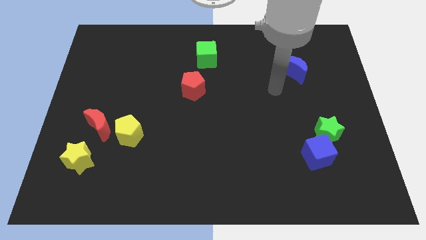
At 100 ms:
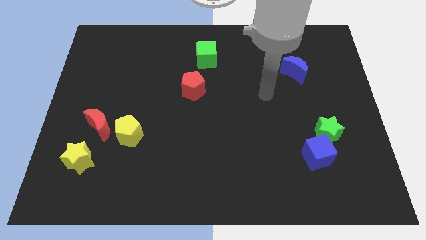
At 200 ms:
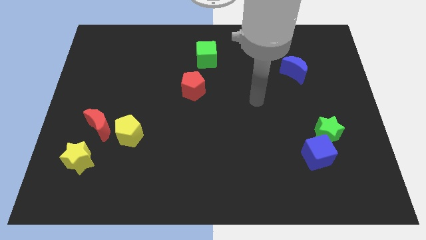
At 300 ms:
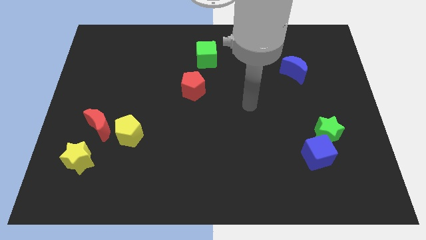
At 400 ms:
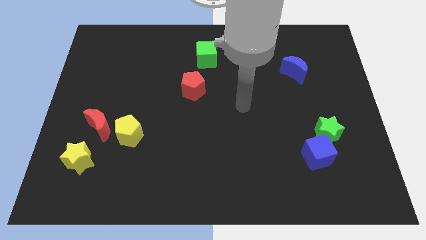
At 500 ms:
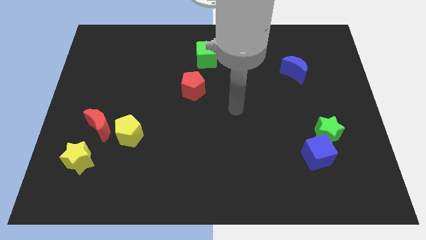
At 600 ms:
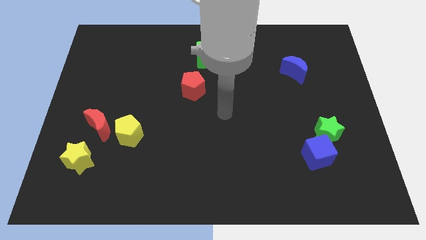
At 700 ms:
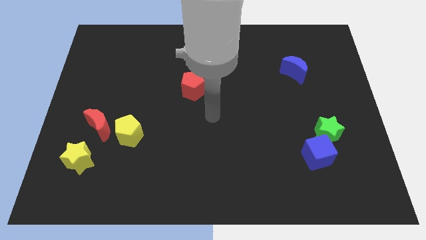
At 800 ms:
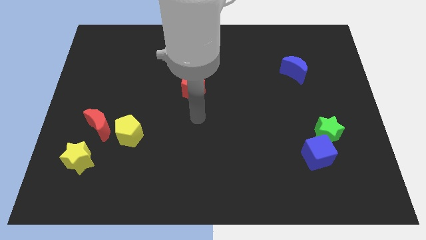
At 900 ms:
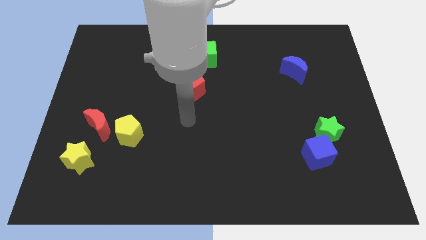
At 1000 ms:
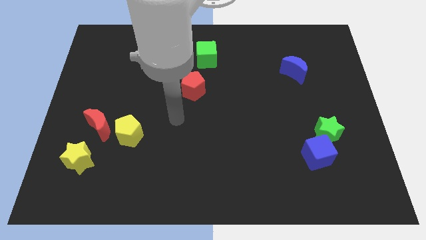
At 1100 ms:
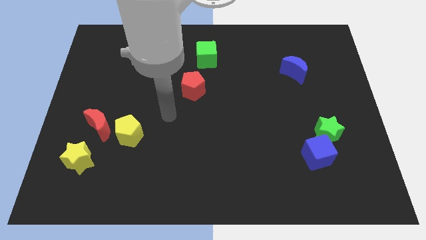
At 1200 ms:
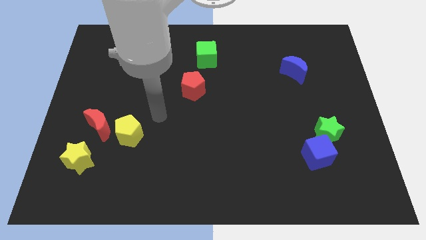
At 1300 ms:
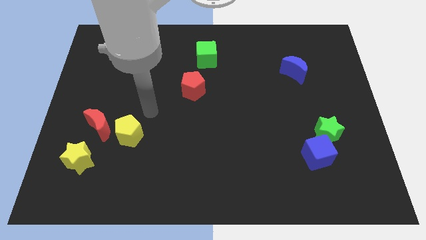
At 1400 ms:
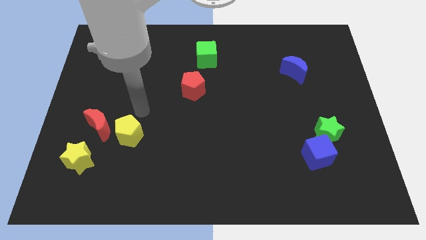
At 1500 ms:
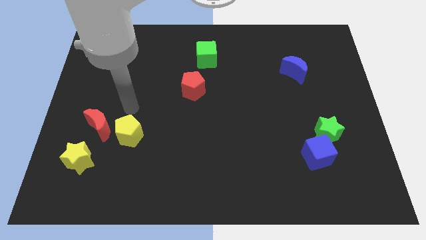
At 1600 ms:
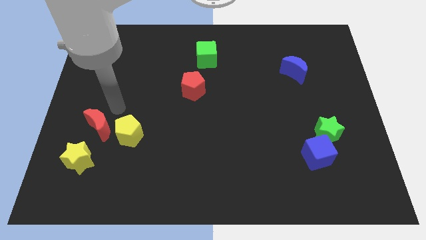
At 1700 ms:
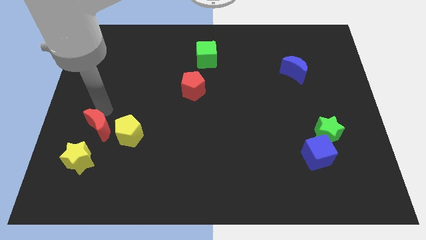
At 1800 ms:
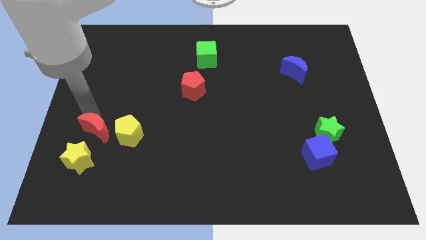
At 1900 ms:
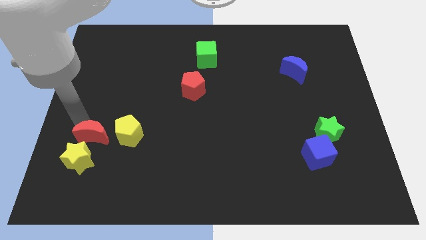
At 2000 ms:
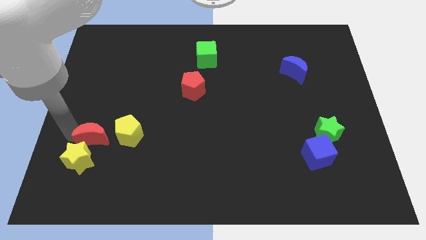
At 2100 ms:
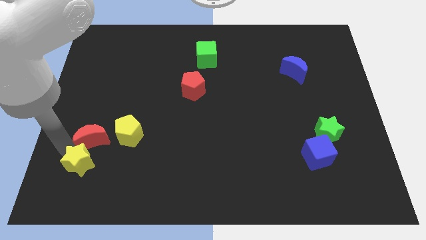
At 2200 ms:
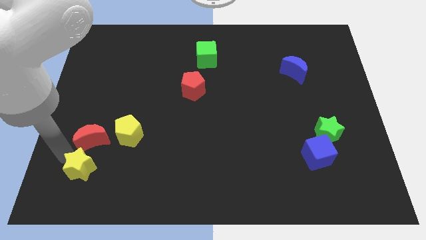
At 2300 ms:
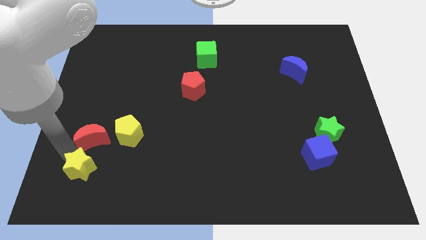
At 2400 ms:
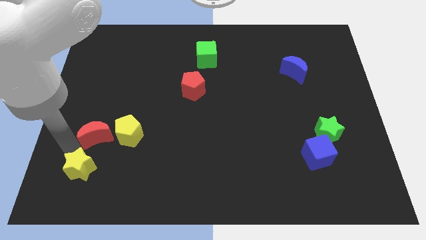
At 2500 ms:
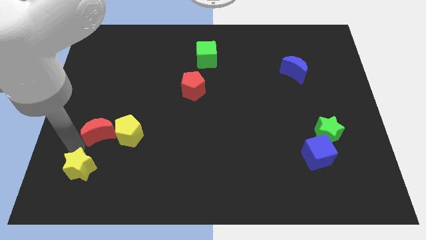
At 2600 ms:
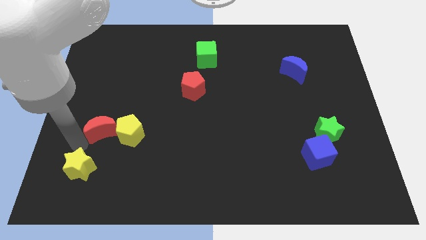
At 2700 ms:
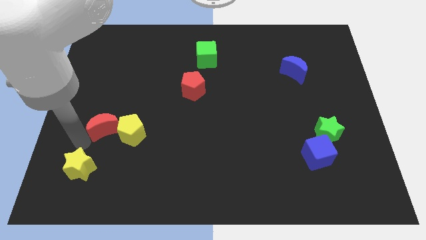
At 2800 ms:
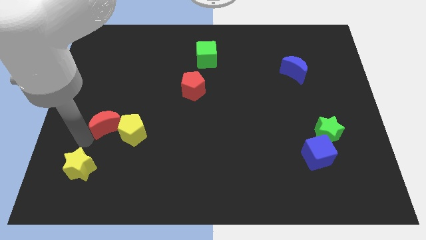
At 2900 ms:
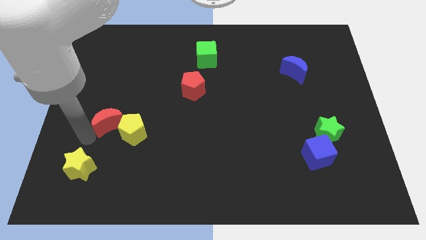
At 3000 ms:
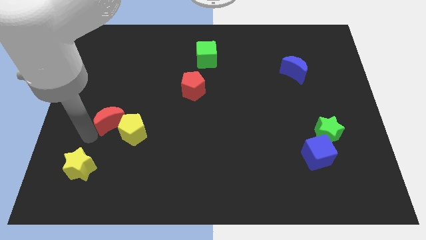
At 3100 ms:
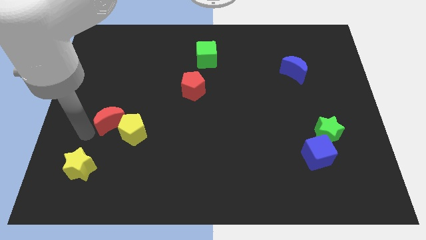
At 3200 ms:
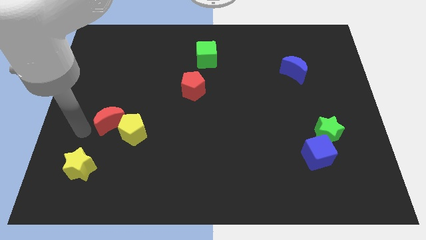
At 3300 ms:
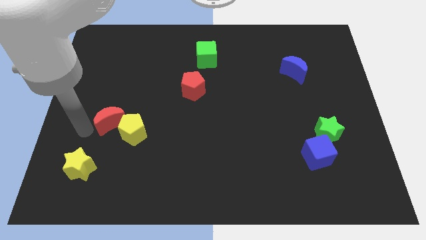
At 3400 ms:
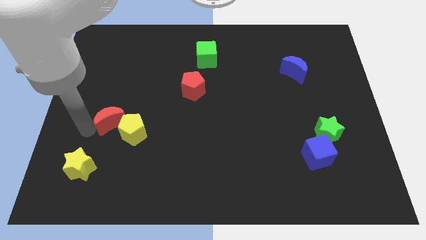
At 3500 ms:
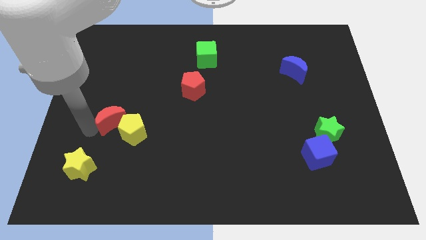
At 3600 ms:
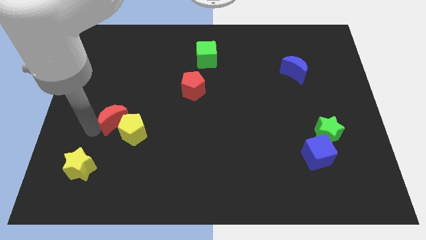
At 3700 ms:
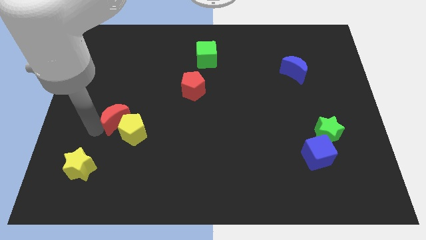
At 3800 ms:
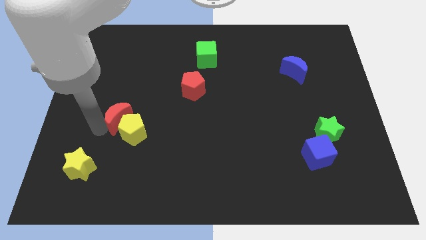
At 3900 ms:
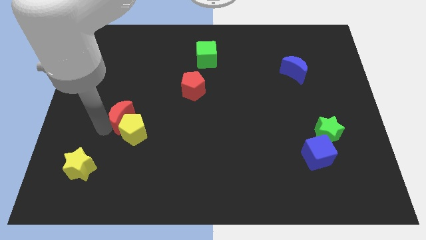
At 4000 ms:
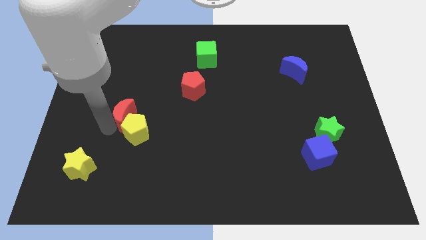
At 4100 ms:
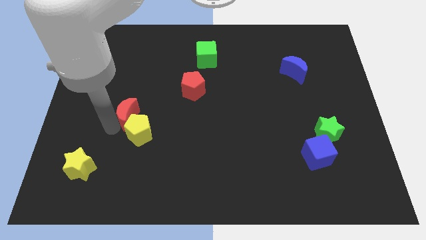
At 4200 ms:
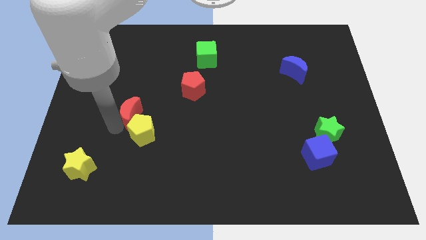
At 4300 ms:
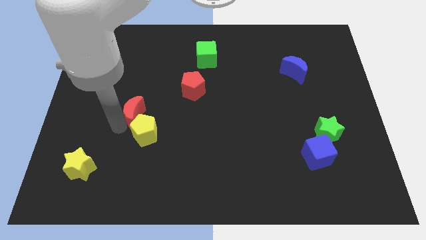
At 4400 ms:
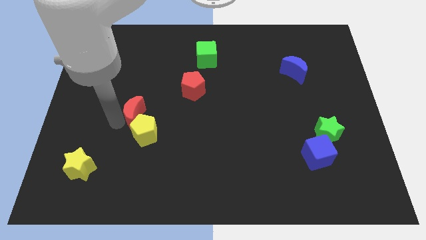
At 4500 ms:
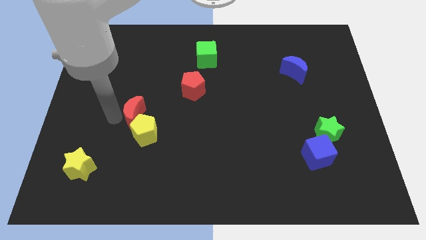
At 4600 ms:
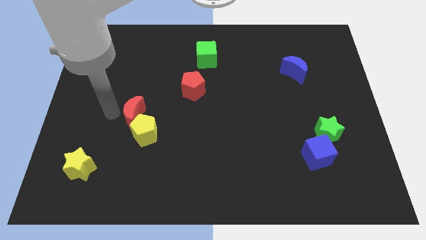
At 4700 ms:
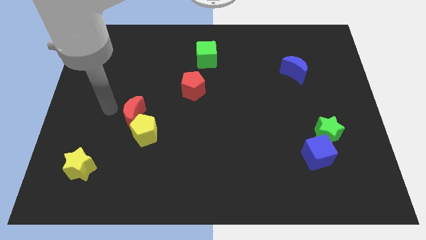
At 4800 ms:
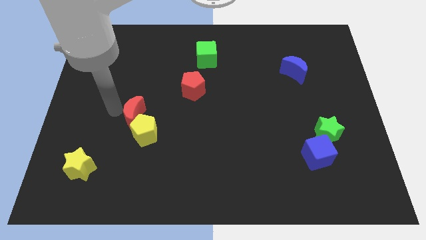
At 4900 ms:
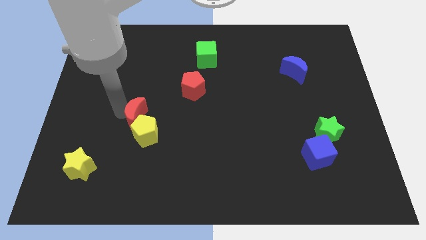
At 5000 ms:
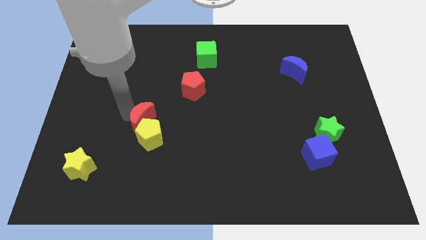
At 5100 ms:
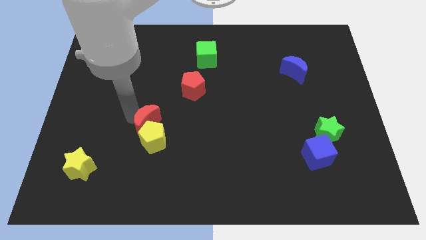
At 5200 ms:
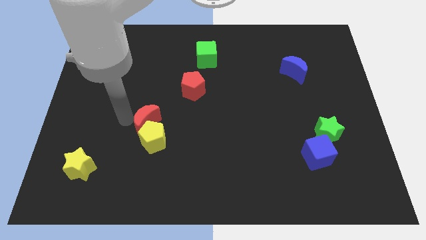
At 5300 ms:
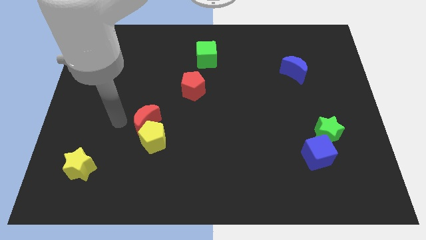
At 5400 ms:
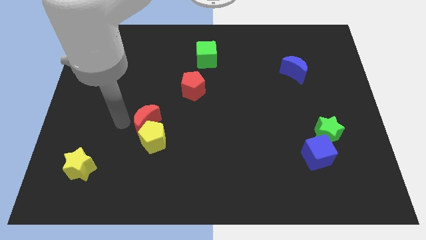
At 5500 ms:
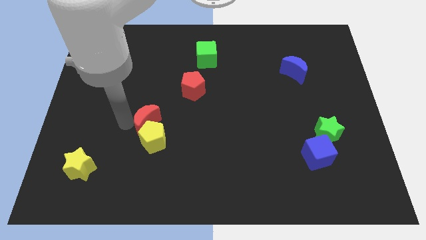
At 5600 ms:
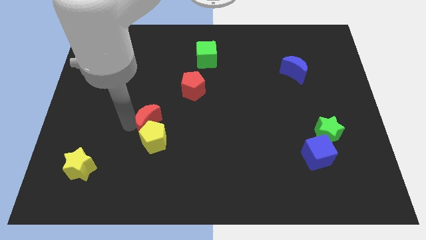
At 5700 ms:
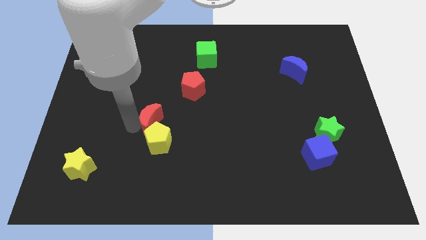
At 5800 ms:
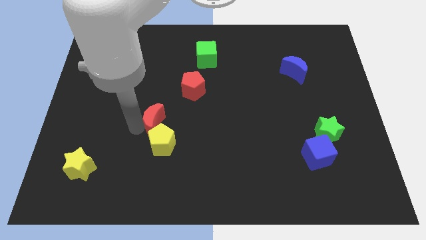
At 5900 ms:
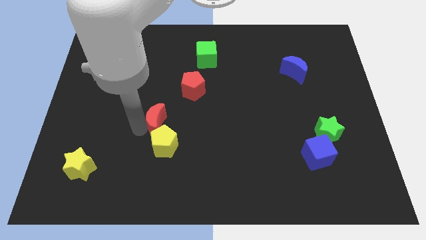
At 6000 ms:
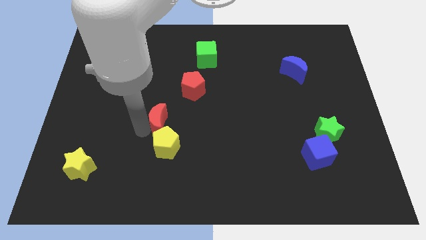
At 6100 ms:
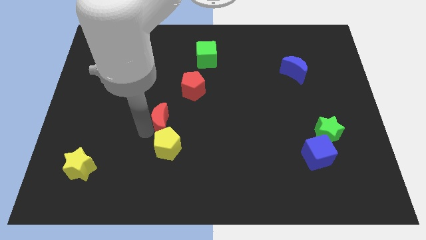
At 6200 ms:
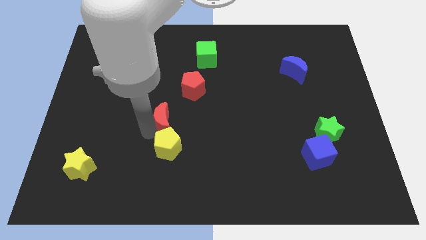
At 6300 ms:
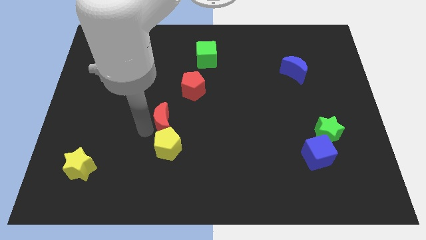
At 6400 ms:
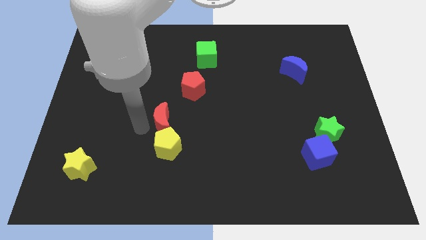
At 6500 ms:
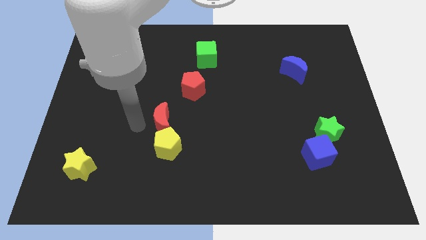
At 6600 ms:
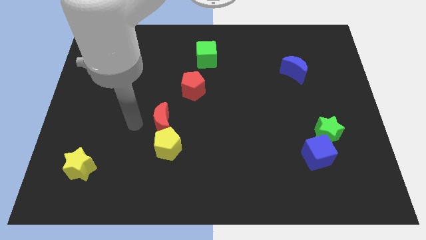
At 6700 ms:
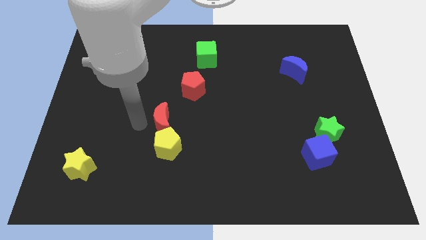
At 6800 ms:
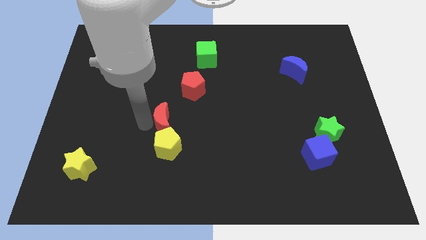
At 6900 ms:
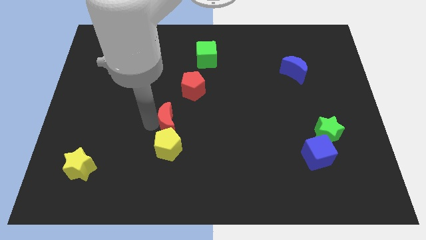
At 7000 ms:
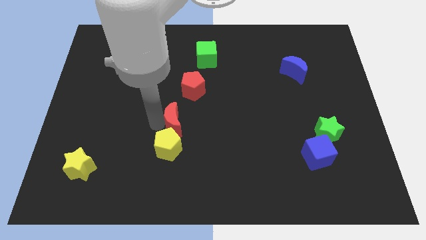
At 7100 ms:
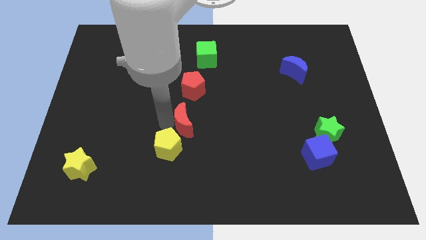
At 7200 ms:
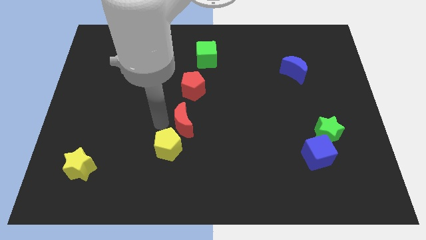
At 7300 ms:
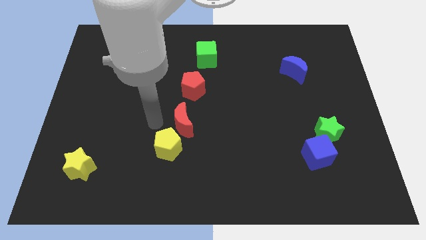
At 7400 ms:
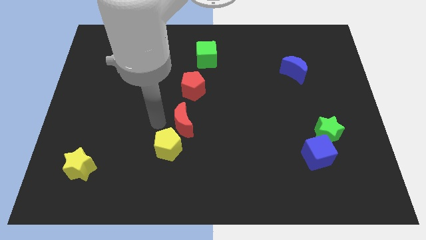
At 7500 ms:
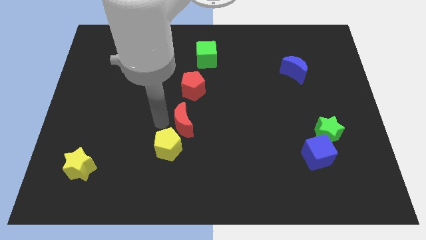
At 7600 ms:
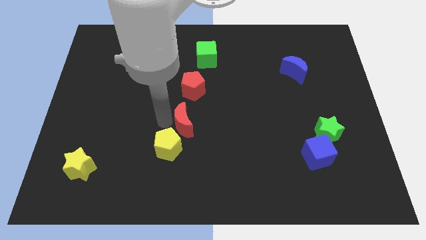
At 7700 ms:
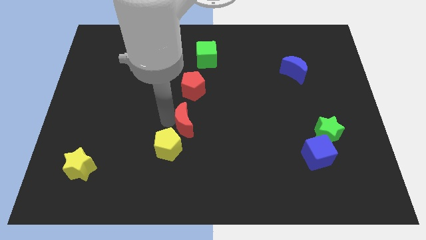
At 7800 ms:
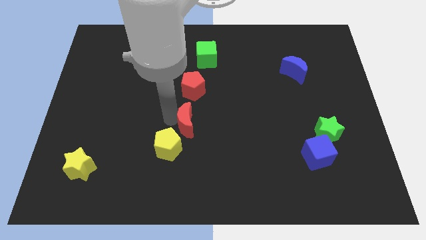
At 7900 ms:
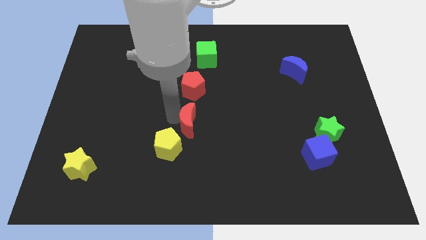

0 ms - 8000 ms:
slide the red moon right

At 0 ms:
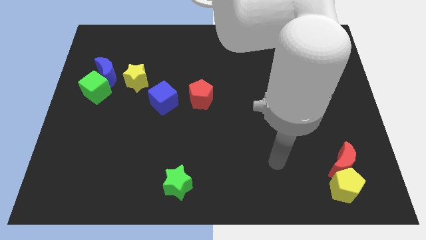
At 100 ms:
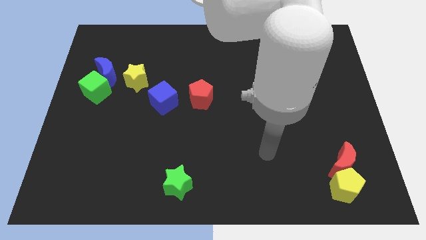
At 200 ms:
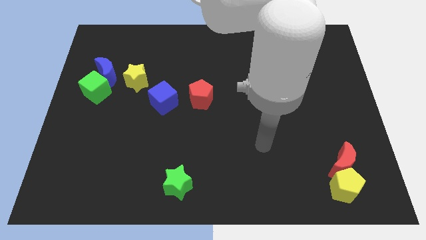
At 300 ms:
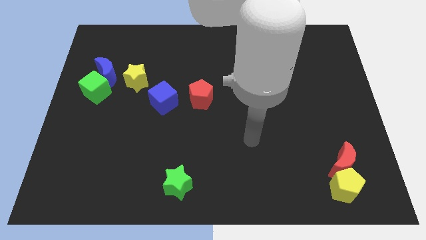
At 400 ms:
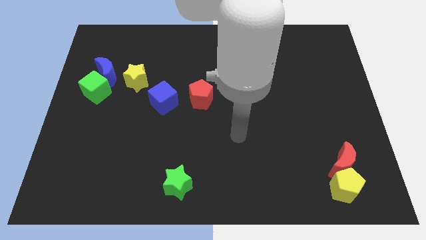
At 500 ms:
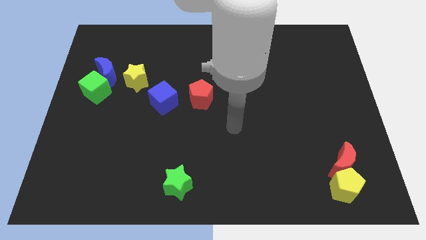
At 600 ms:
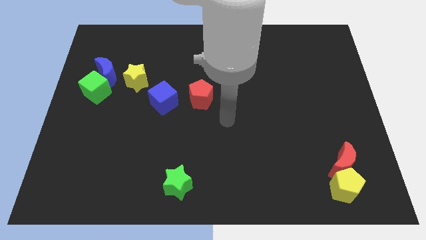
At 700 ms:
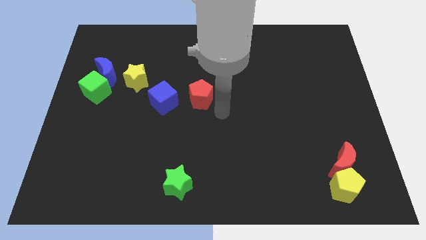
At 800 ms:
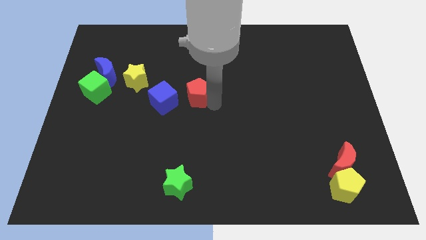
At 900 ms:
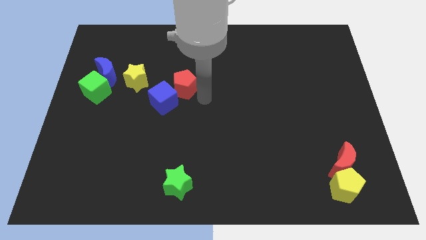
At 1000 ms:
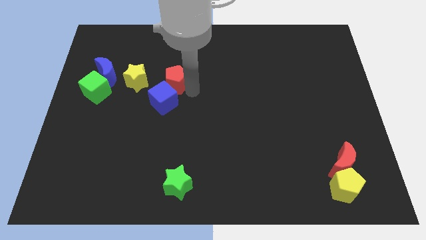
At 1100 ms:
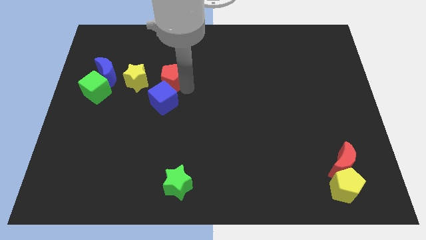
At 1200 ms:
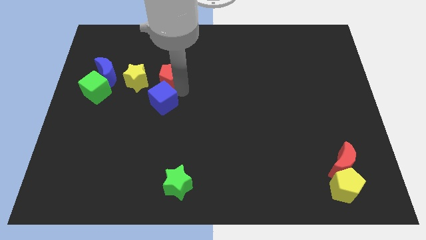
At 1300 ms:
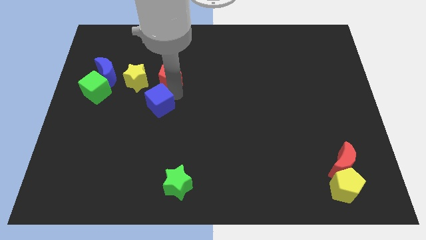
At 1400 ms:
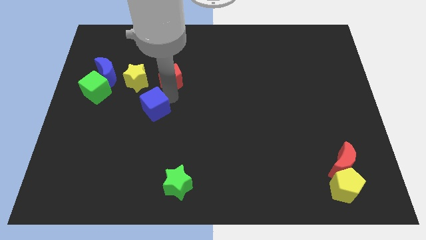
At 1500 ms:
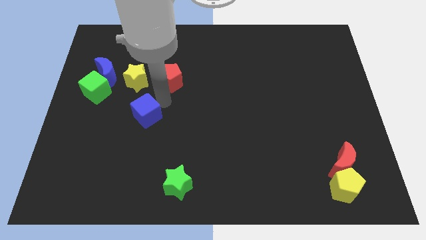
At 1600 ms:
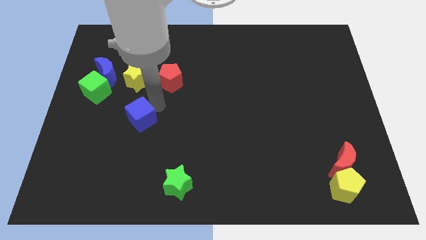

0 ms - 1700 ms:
move the blue cube somewhat diagonally downwards and to the left
